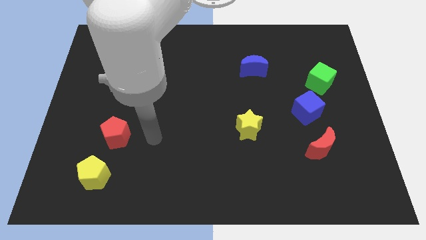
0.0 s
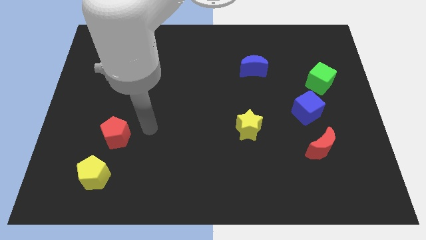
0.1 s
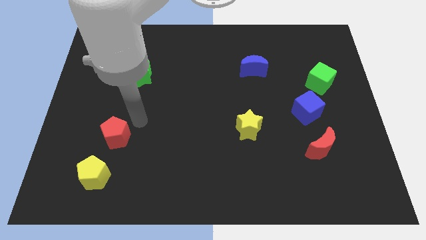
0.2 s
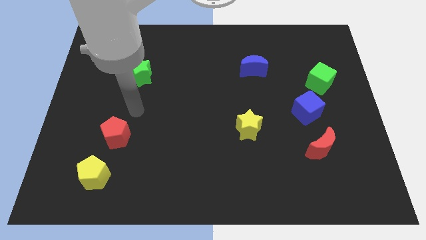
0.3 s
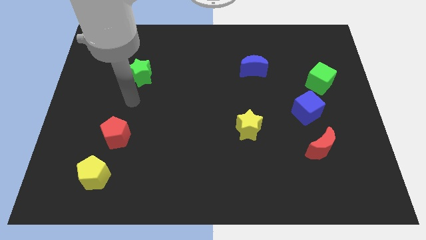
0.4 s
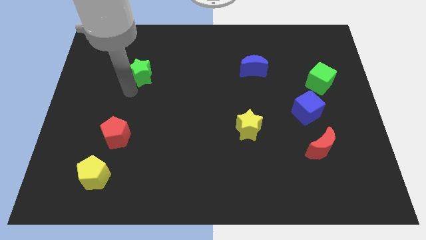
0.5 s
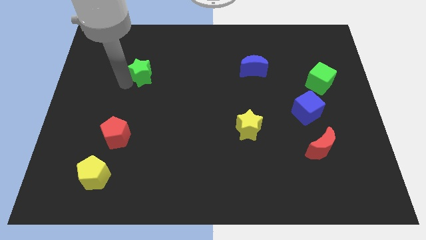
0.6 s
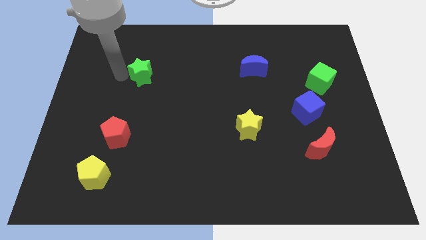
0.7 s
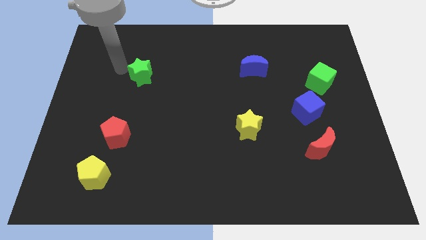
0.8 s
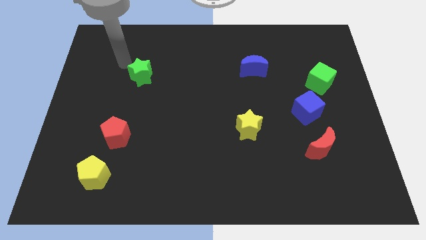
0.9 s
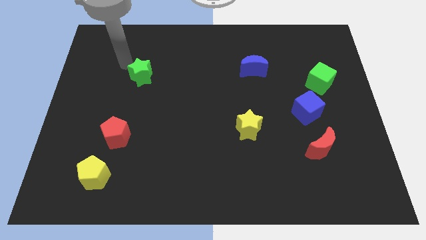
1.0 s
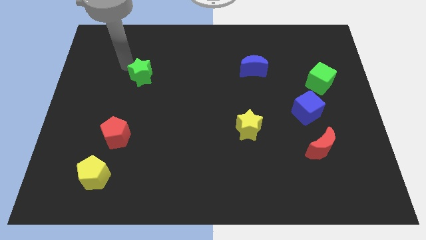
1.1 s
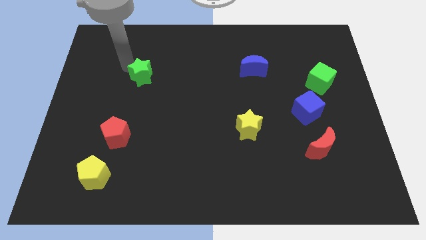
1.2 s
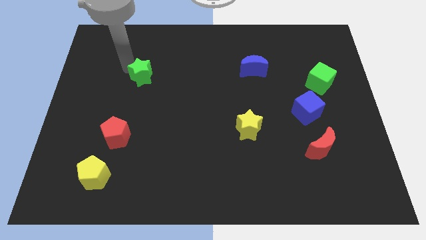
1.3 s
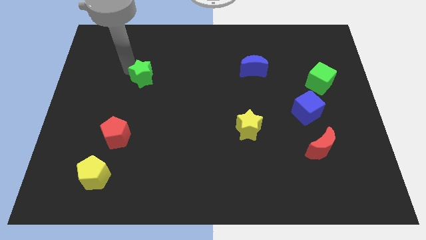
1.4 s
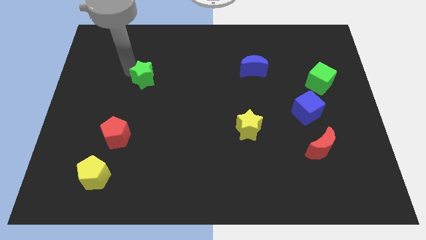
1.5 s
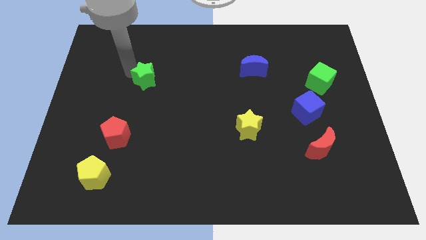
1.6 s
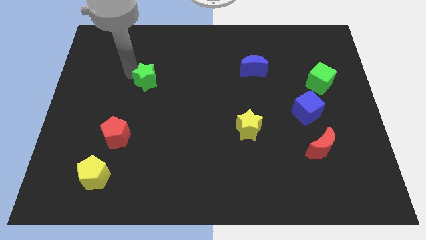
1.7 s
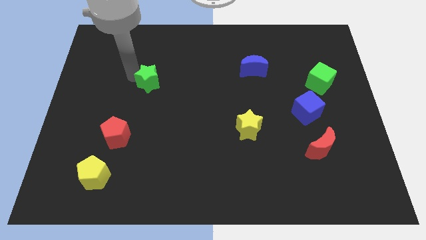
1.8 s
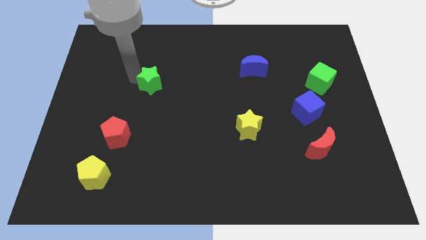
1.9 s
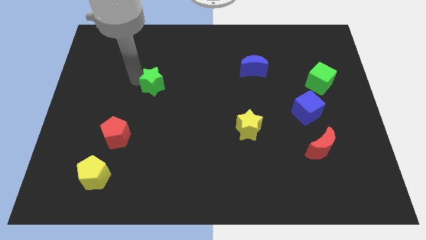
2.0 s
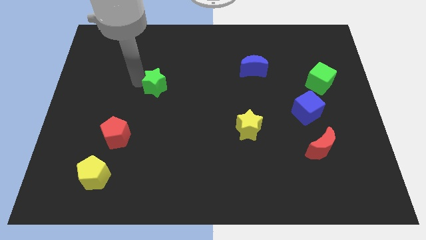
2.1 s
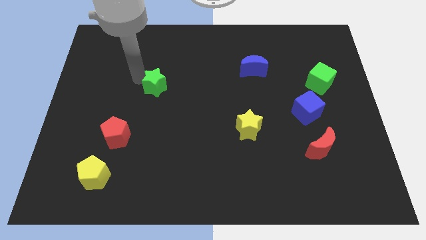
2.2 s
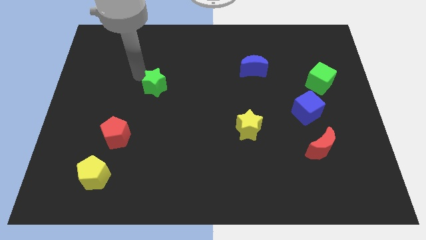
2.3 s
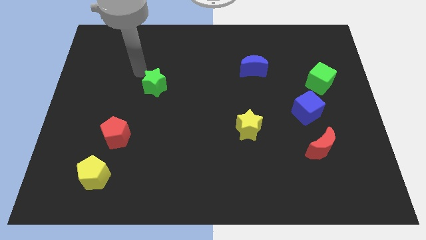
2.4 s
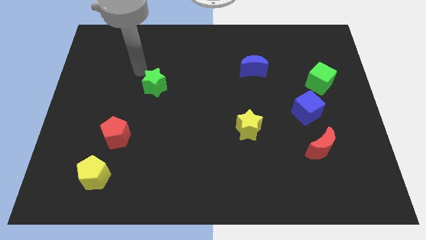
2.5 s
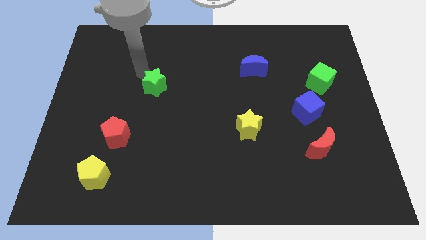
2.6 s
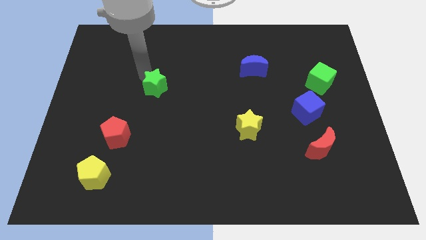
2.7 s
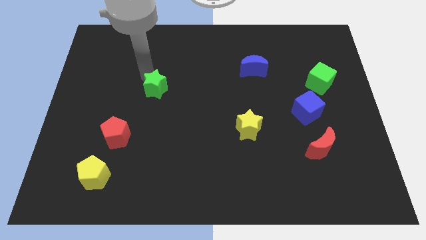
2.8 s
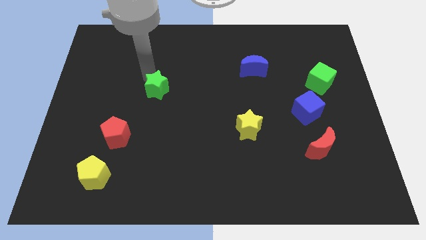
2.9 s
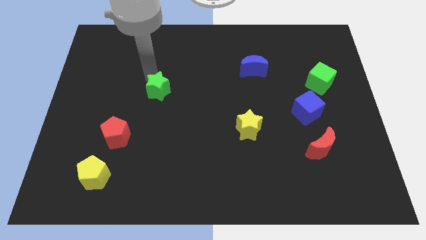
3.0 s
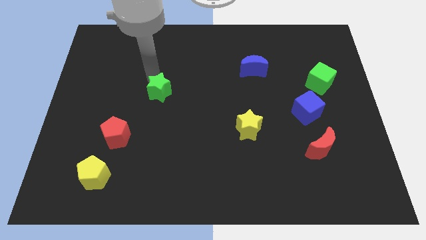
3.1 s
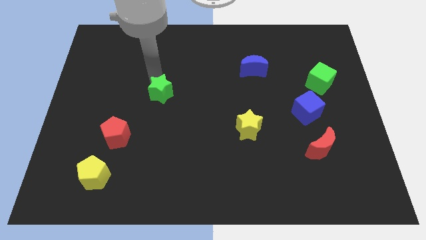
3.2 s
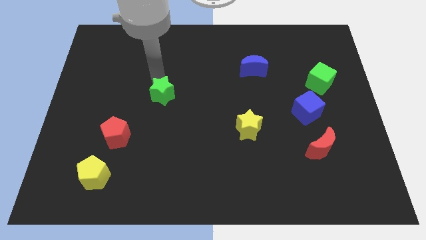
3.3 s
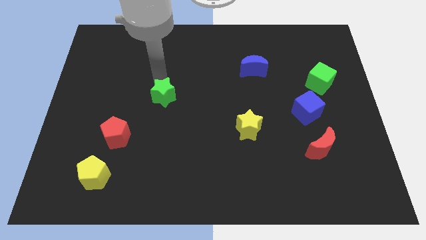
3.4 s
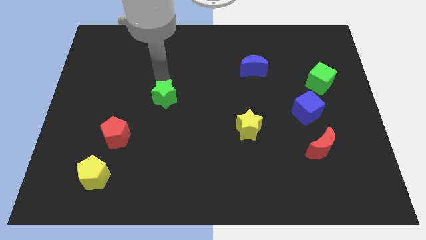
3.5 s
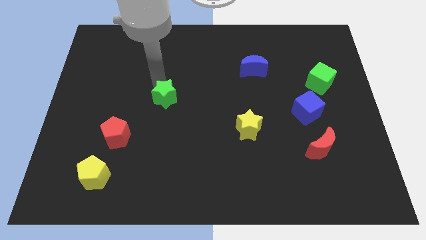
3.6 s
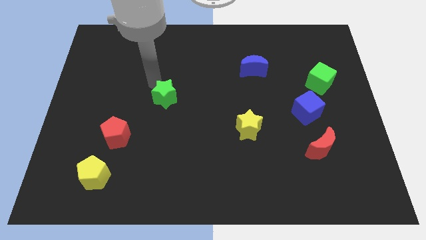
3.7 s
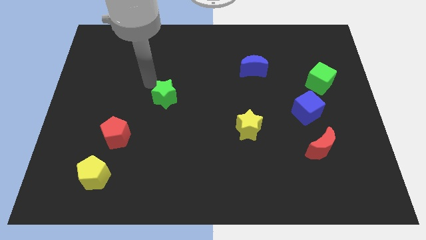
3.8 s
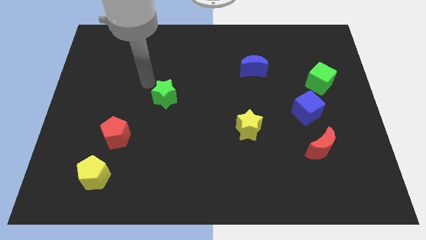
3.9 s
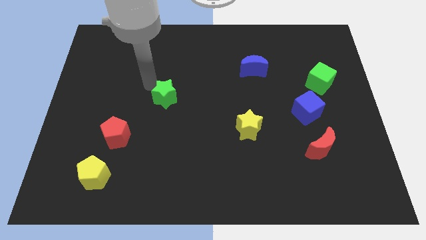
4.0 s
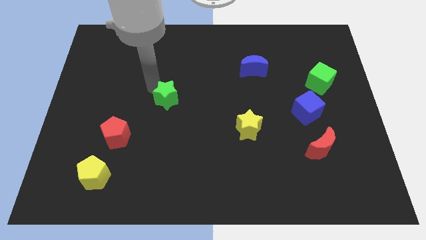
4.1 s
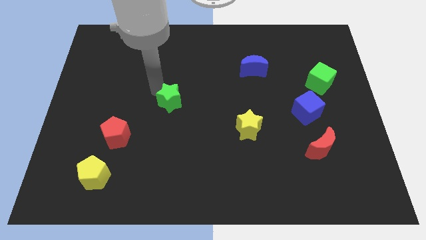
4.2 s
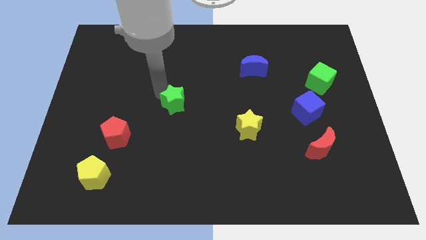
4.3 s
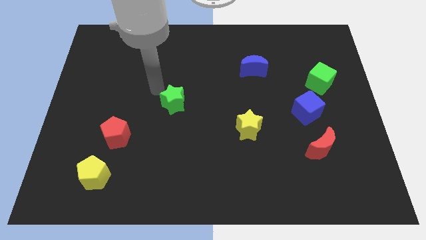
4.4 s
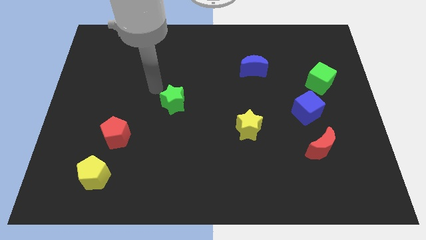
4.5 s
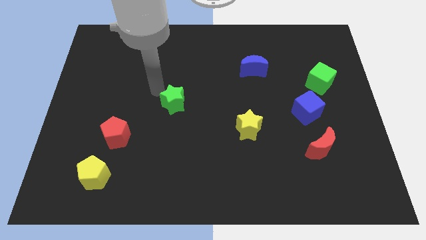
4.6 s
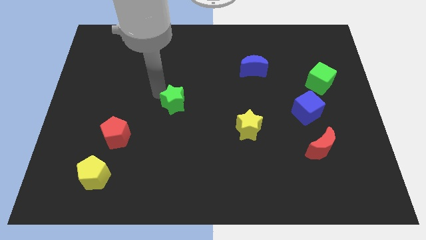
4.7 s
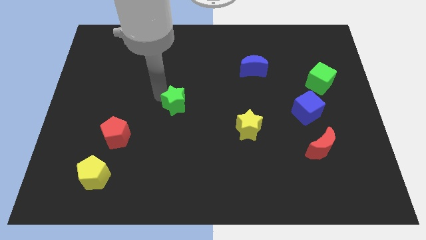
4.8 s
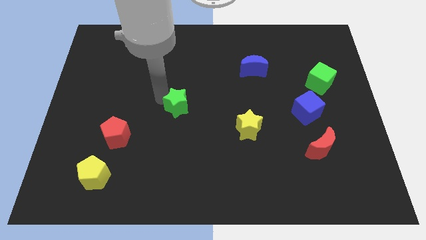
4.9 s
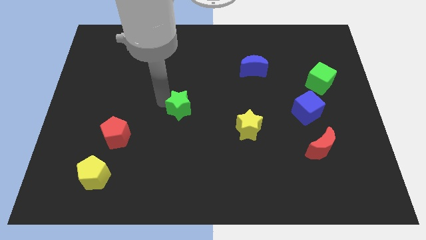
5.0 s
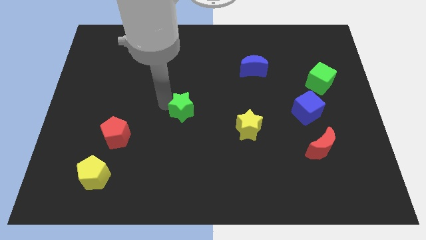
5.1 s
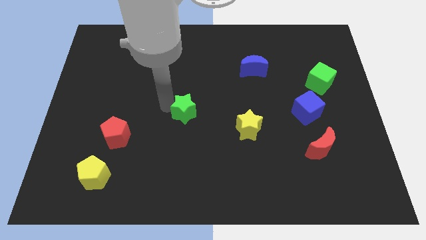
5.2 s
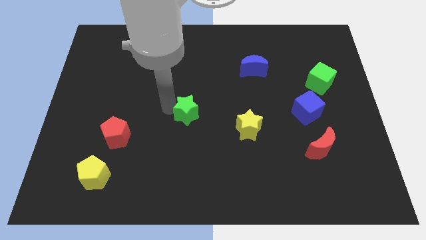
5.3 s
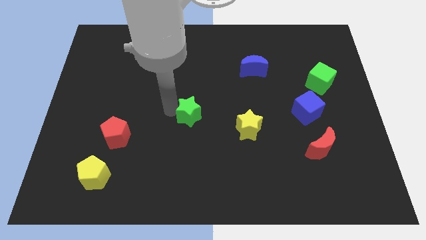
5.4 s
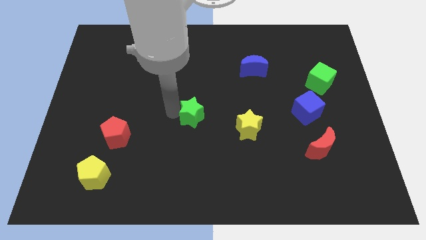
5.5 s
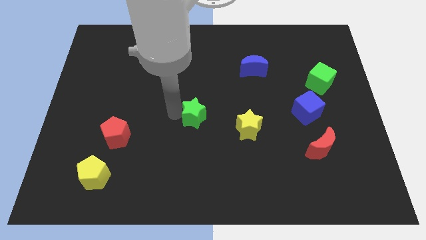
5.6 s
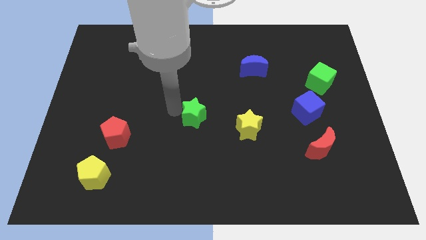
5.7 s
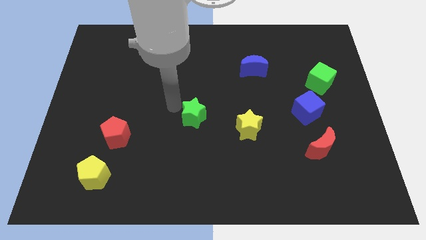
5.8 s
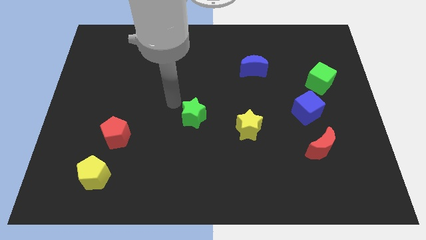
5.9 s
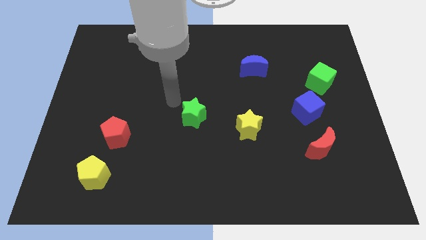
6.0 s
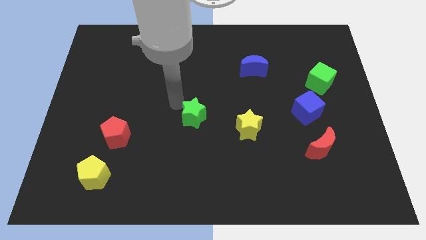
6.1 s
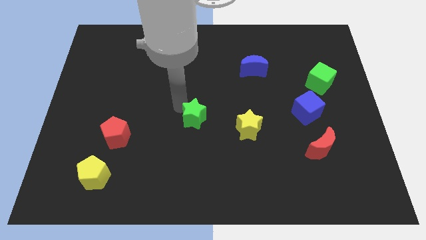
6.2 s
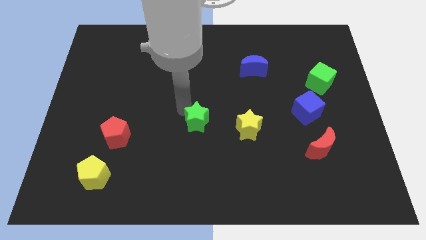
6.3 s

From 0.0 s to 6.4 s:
move the green star diagonally down and to the right

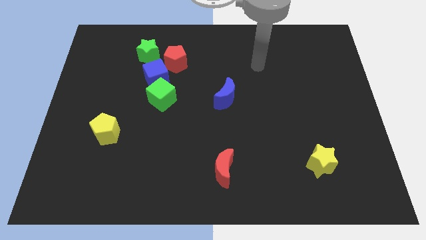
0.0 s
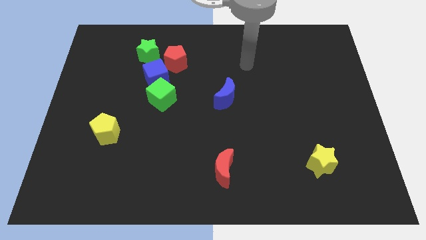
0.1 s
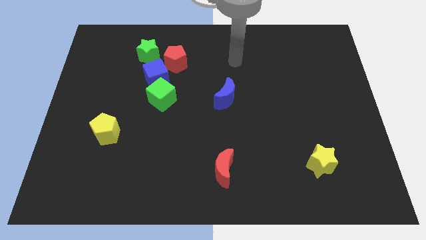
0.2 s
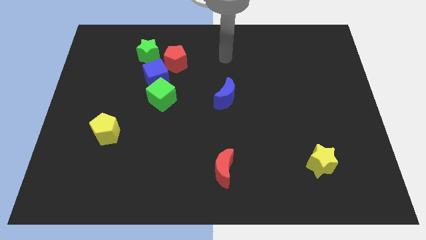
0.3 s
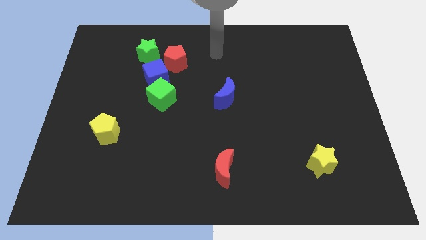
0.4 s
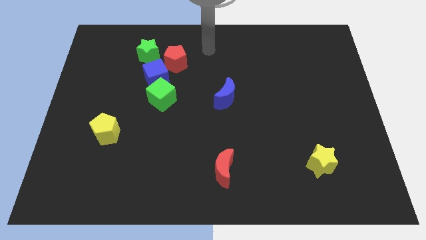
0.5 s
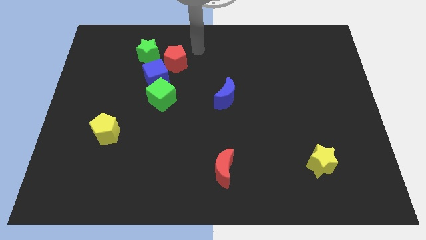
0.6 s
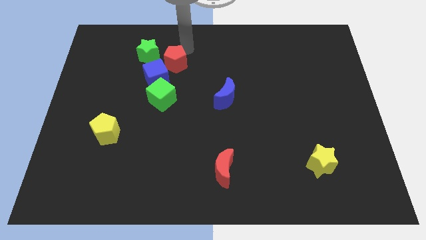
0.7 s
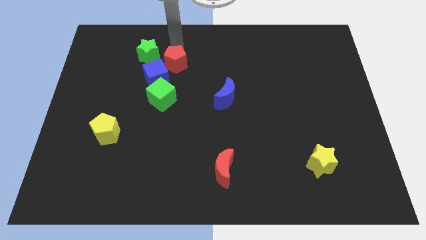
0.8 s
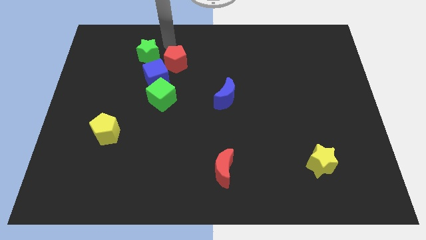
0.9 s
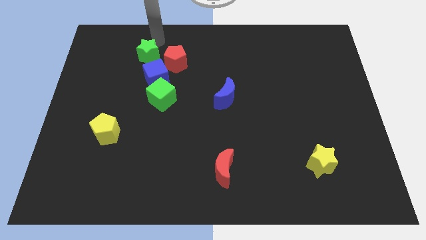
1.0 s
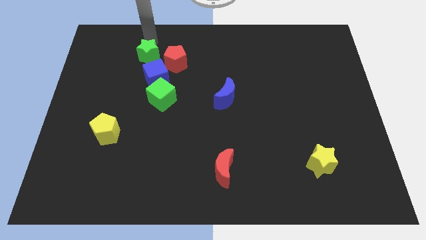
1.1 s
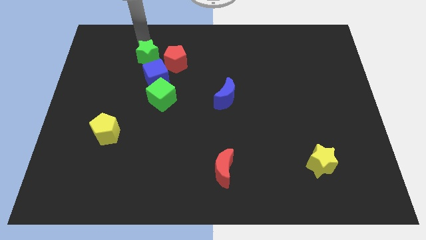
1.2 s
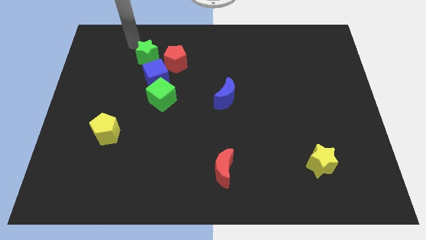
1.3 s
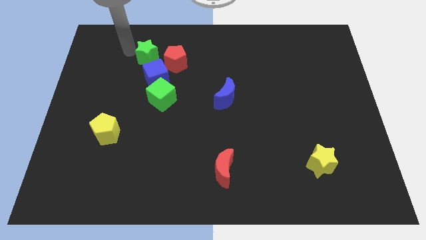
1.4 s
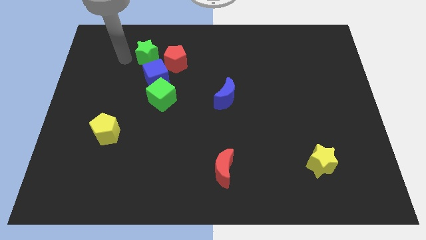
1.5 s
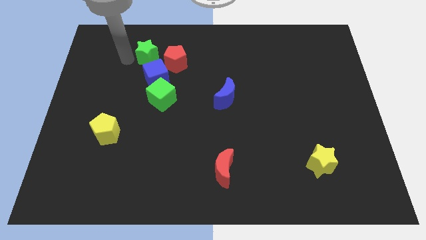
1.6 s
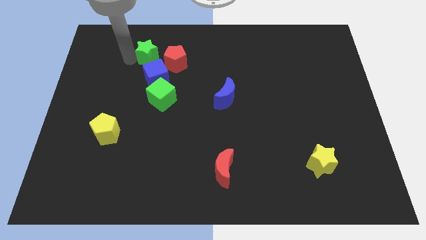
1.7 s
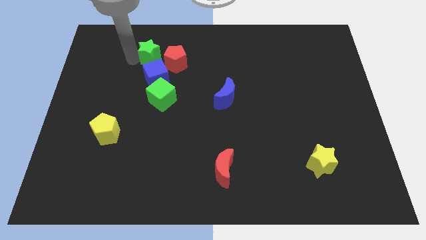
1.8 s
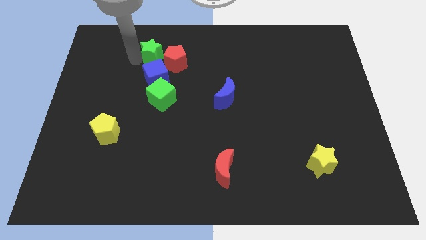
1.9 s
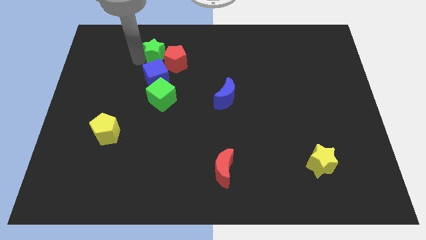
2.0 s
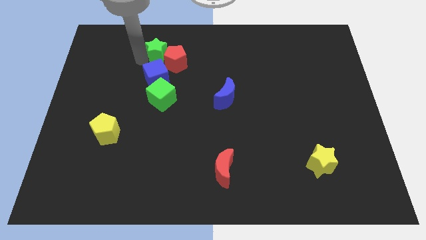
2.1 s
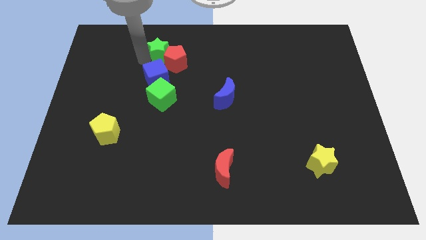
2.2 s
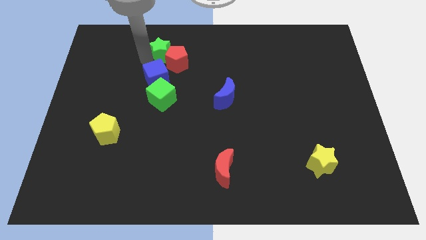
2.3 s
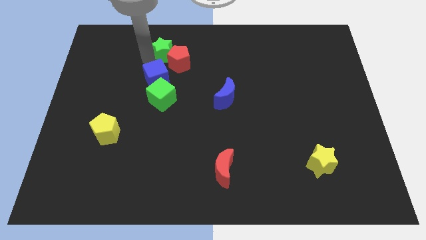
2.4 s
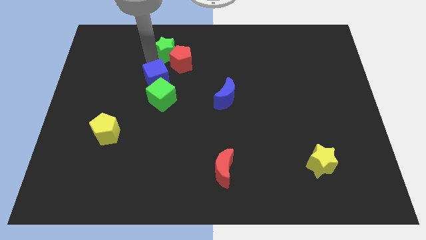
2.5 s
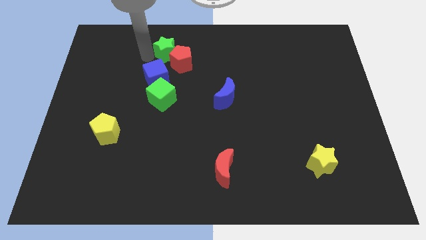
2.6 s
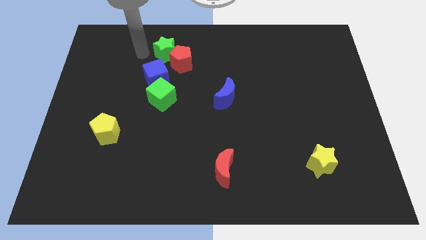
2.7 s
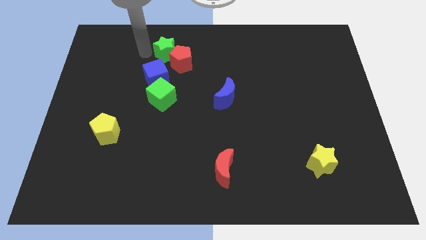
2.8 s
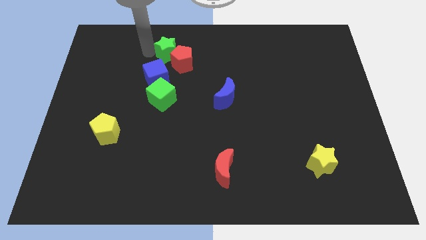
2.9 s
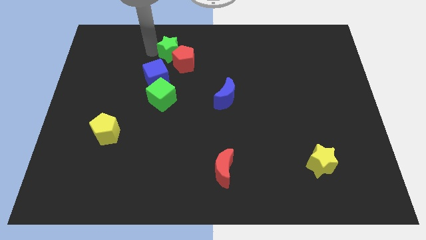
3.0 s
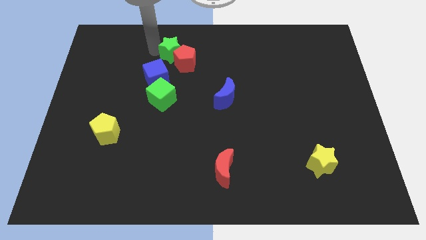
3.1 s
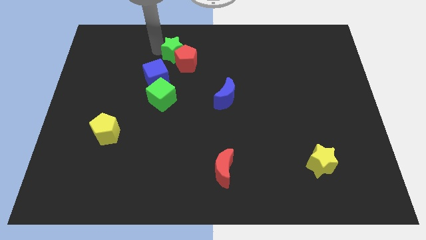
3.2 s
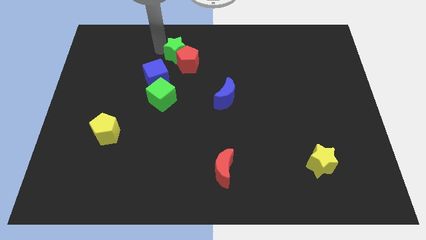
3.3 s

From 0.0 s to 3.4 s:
push the green star a little right
